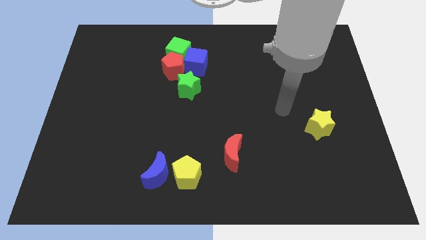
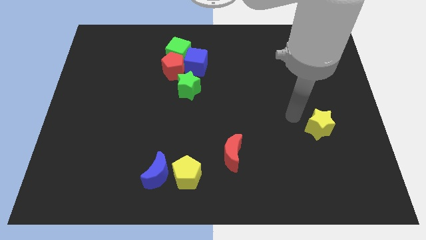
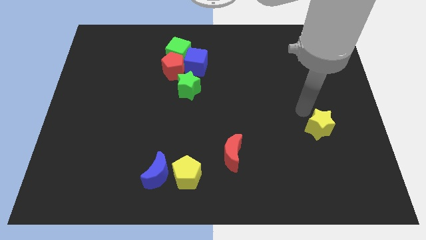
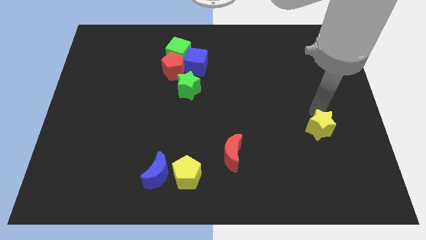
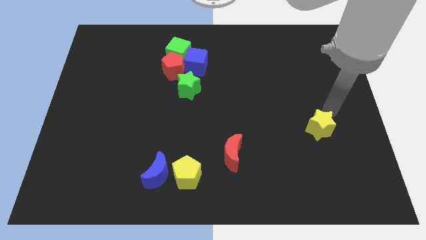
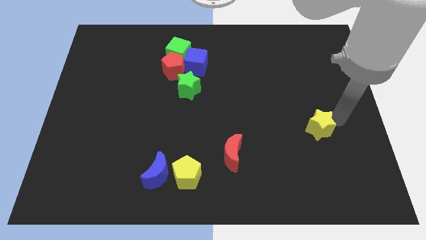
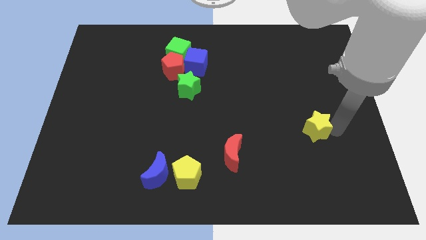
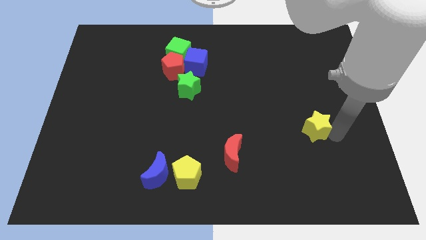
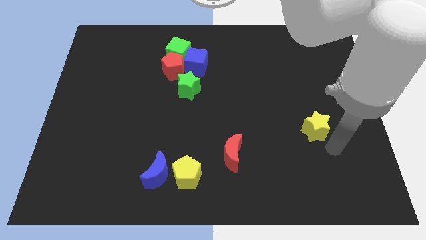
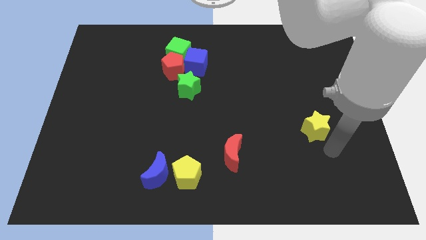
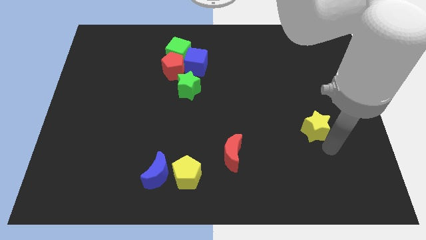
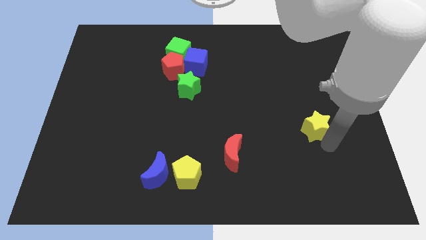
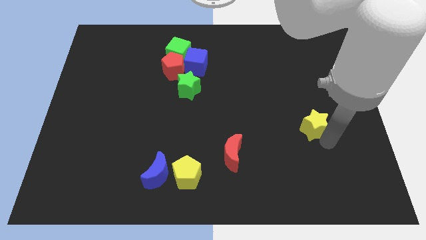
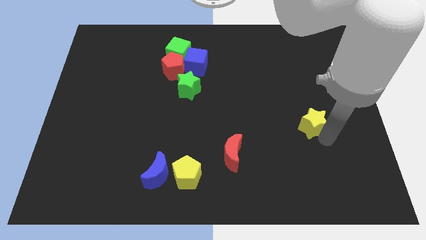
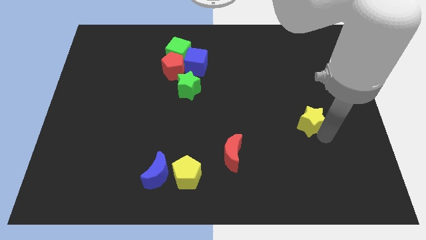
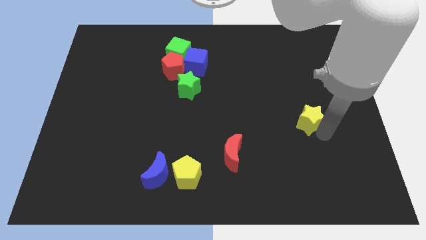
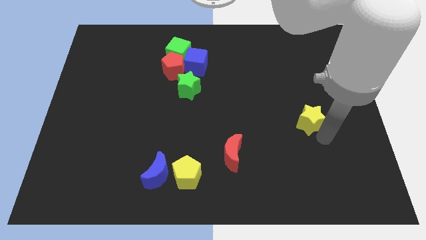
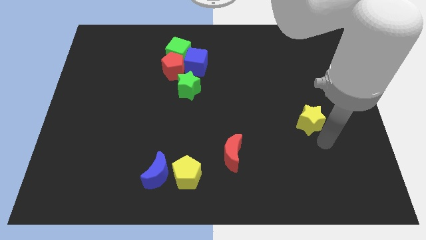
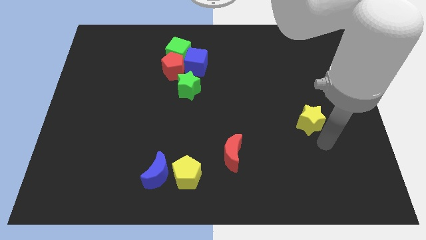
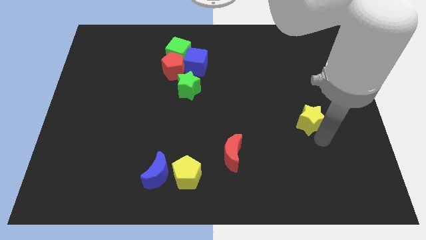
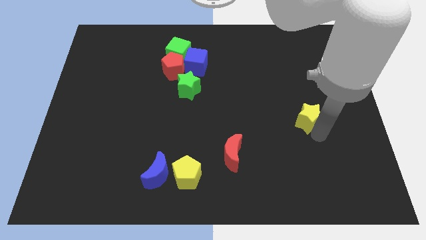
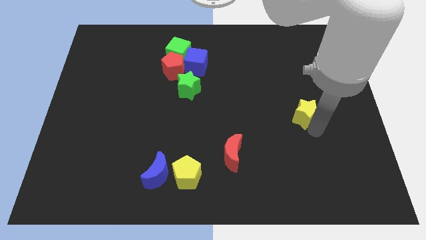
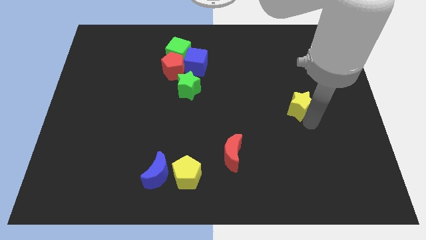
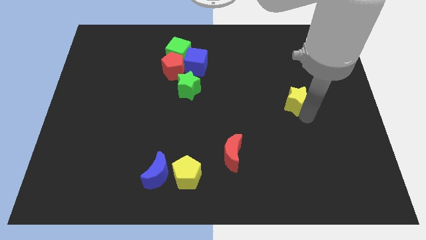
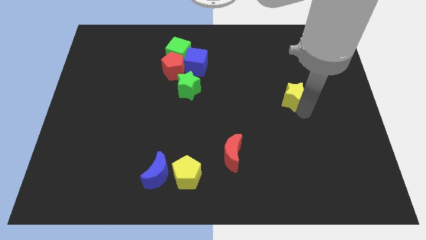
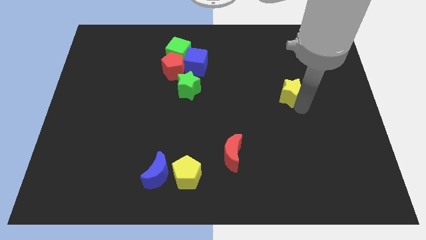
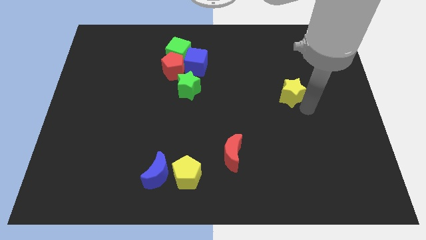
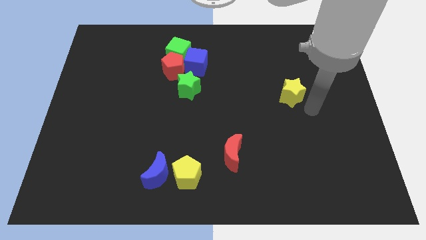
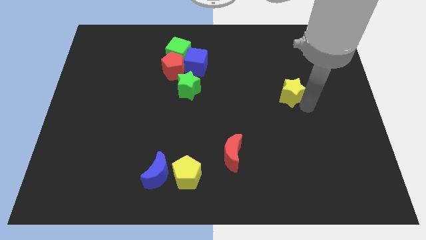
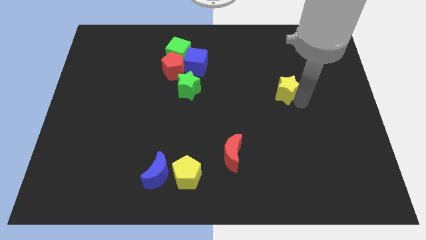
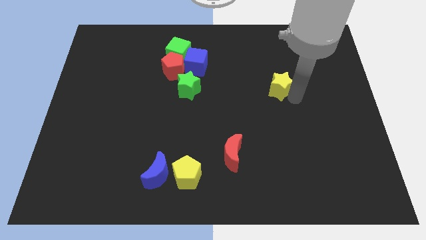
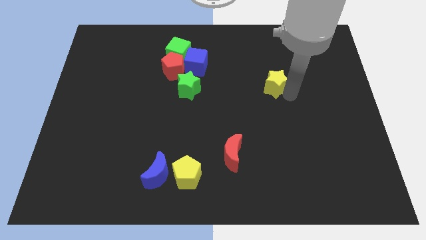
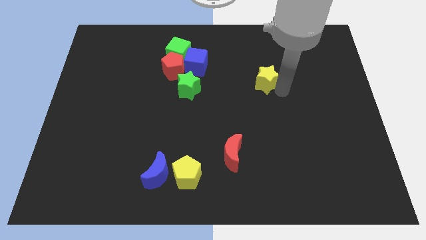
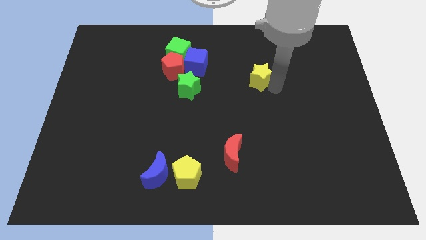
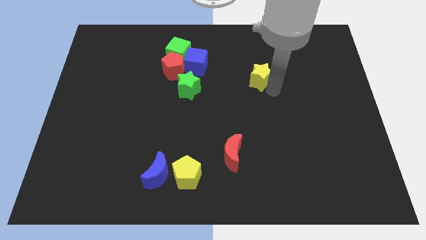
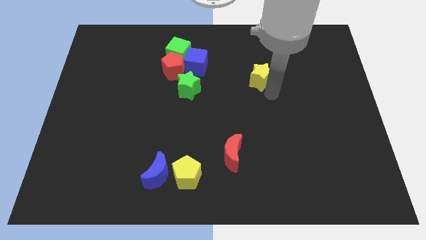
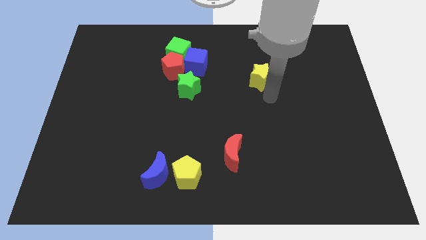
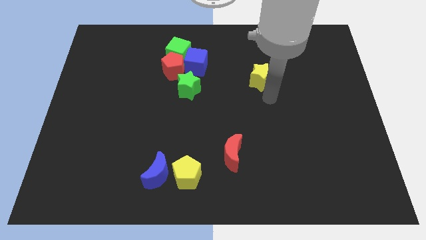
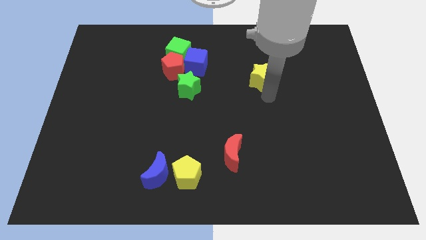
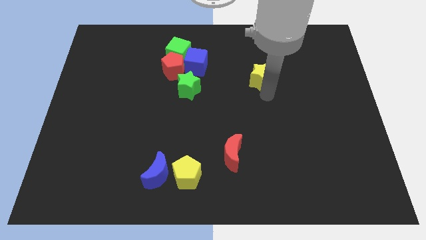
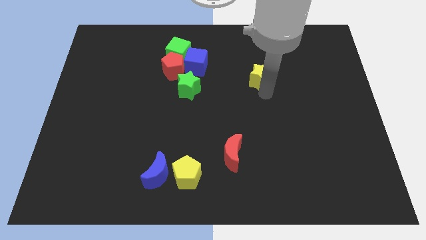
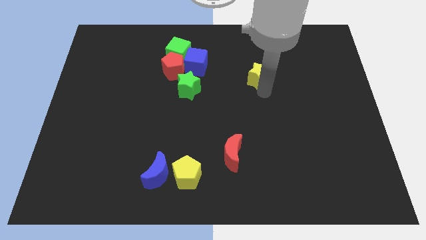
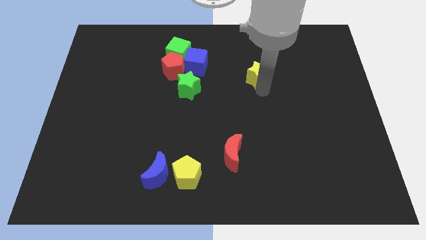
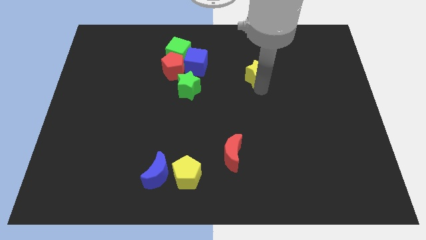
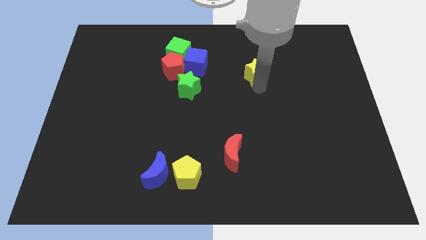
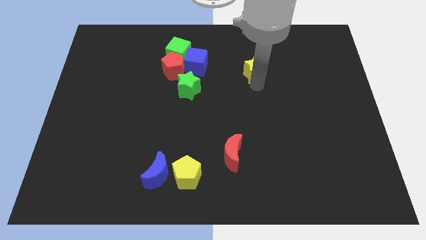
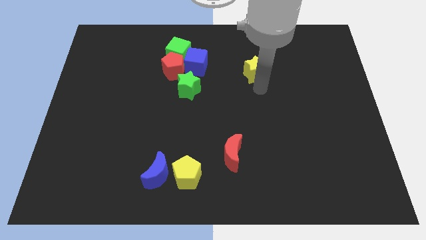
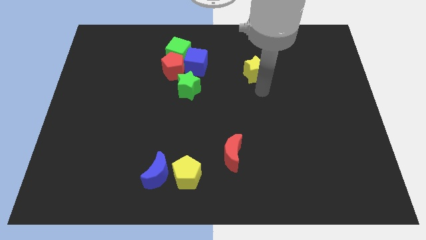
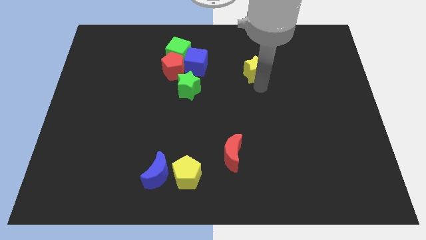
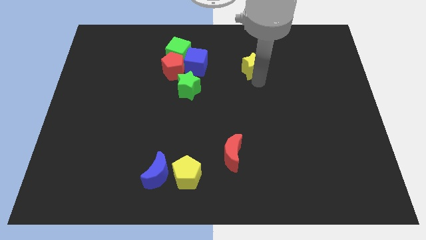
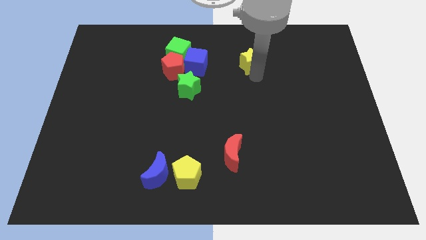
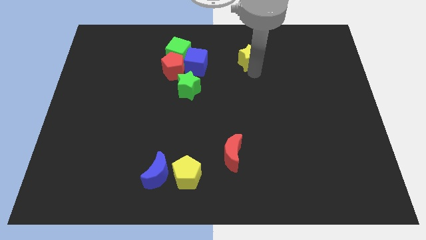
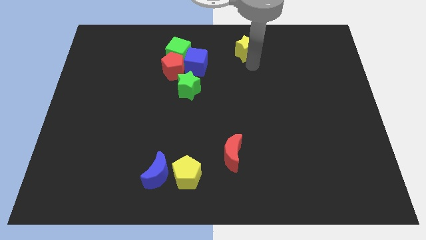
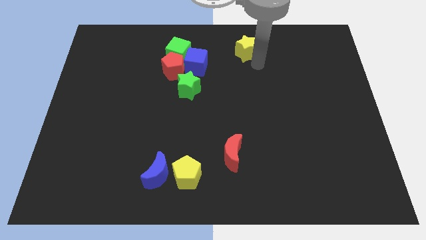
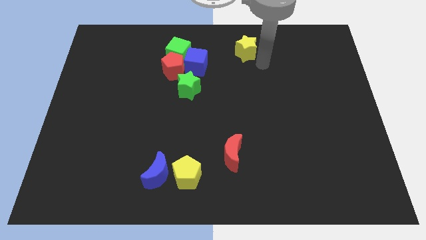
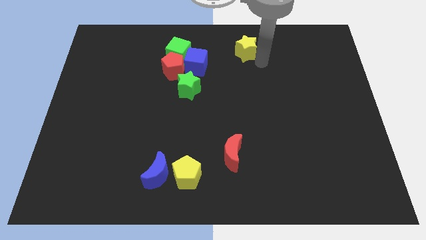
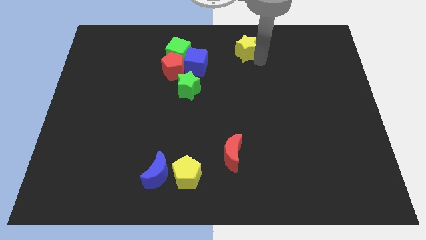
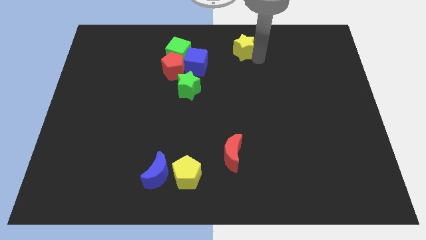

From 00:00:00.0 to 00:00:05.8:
push the yellow star to the towards your base

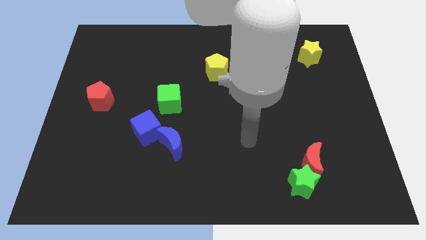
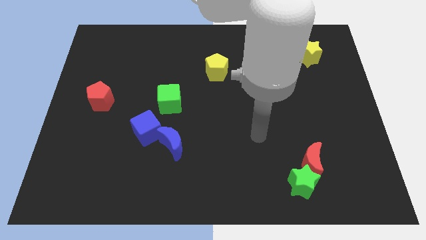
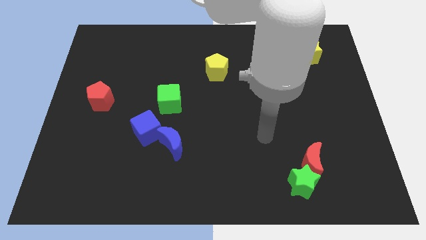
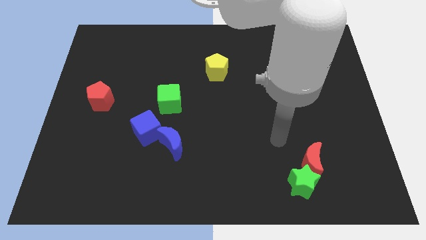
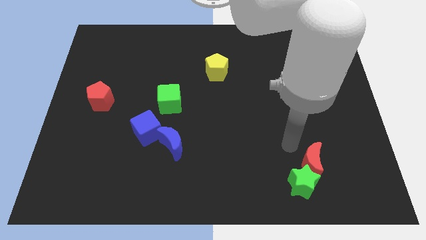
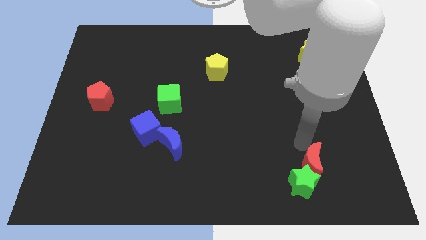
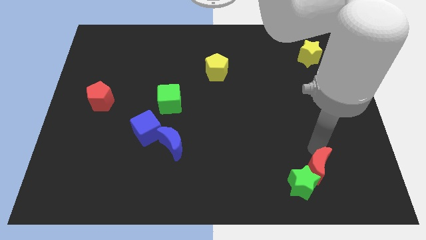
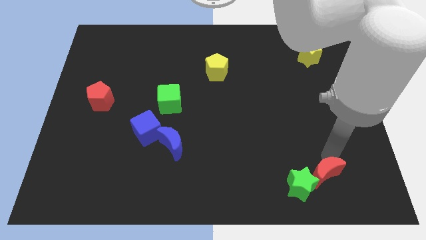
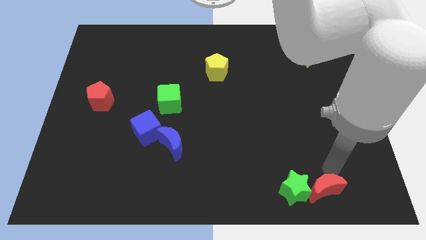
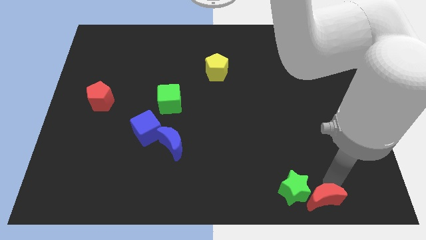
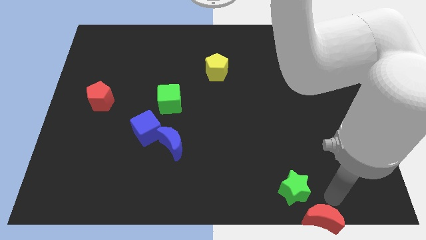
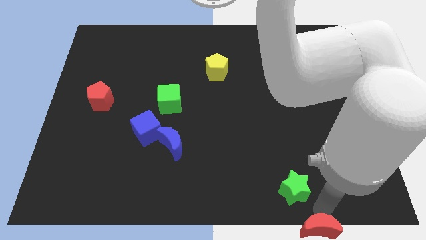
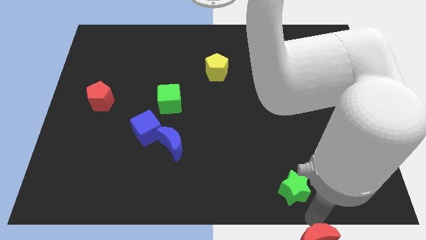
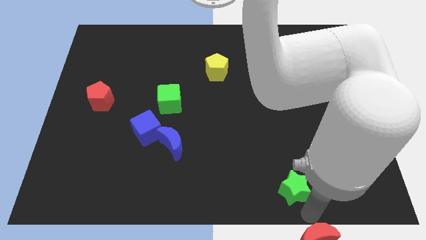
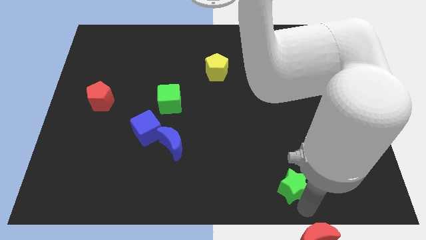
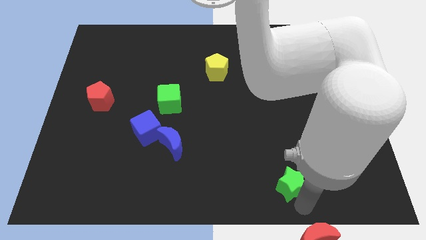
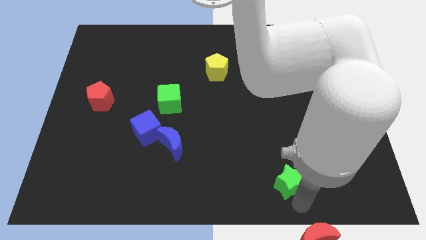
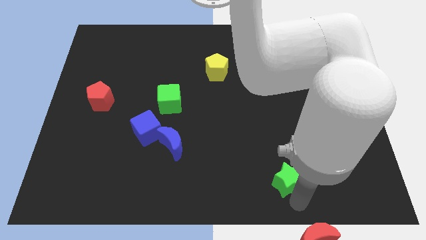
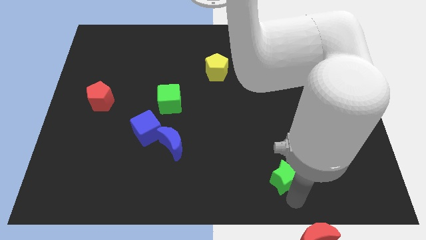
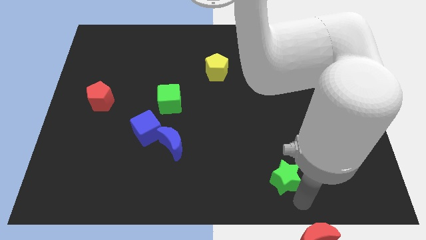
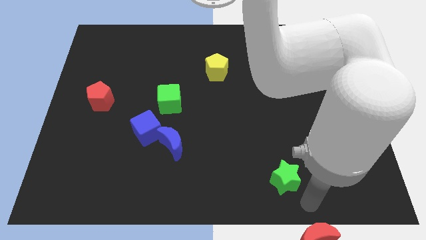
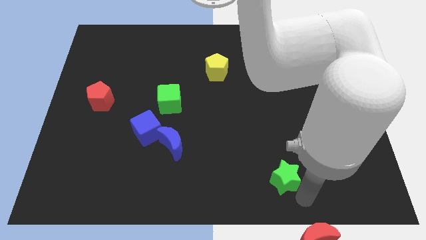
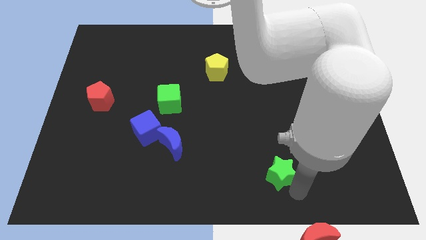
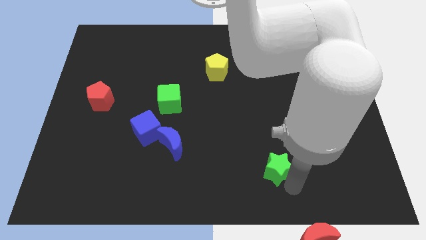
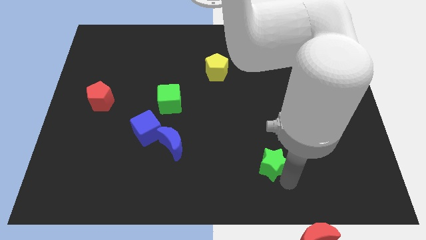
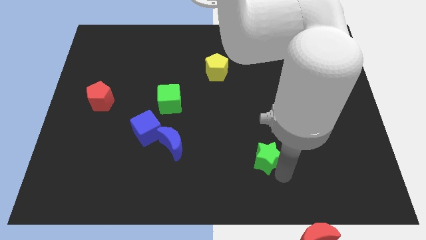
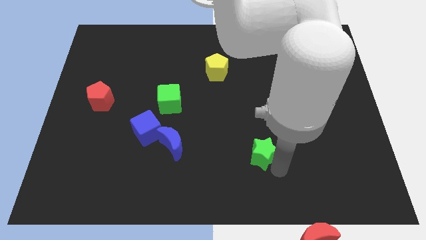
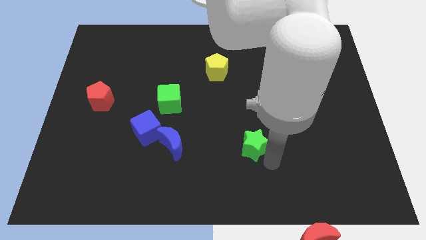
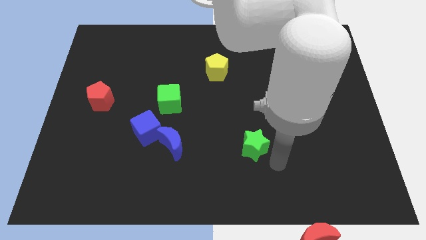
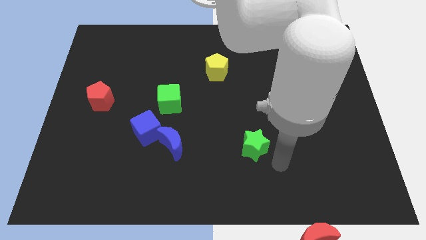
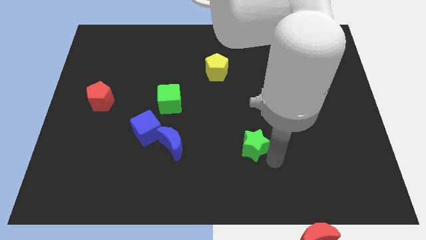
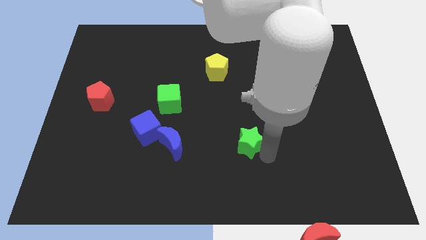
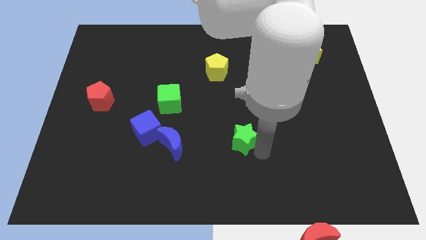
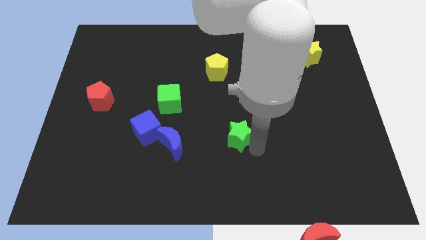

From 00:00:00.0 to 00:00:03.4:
push the green star to the middle
